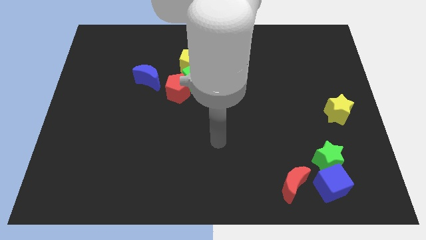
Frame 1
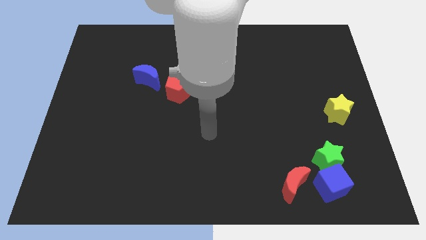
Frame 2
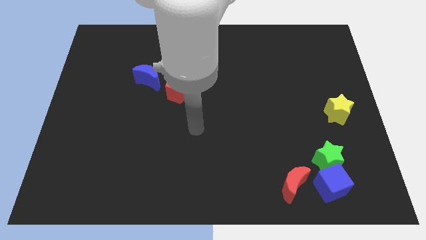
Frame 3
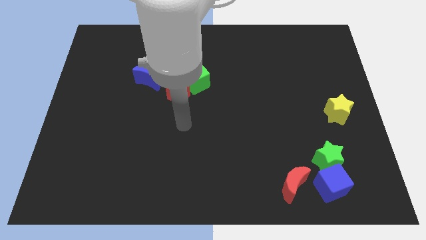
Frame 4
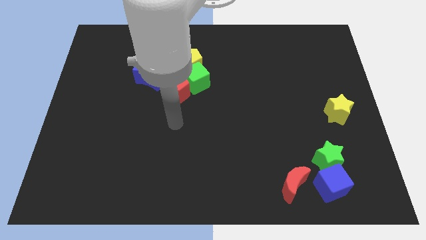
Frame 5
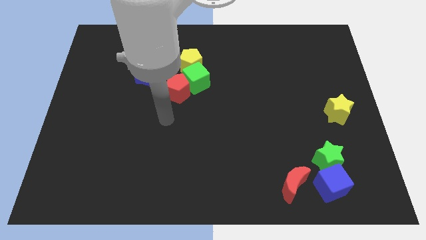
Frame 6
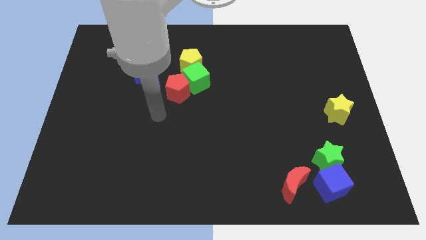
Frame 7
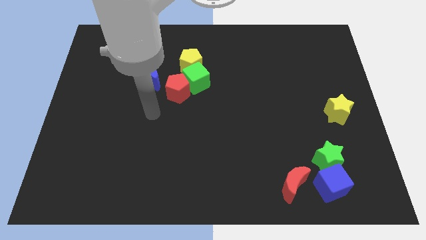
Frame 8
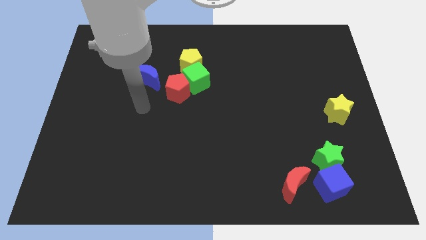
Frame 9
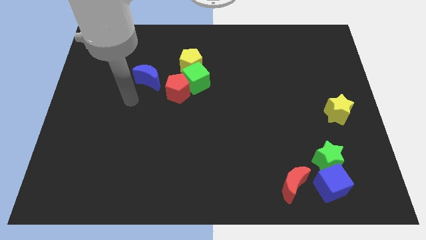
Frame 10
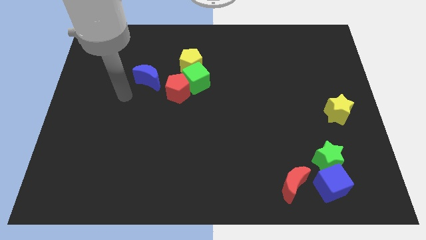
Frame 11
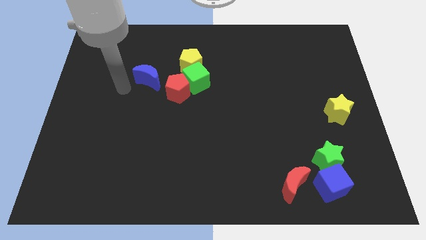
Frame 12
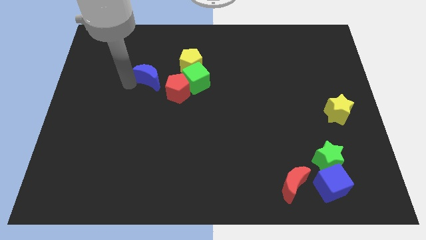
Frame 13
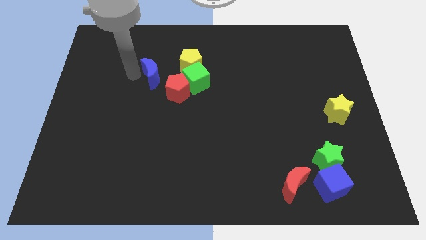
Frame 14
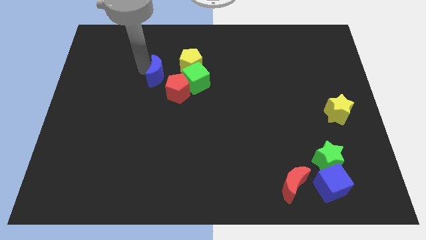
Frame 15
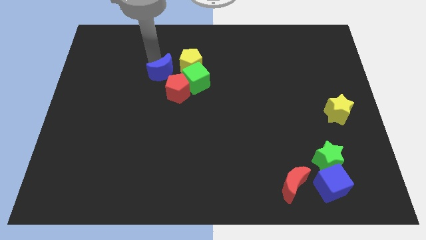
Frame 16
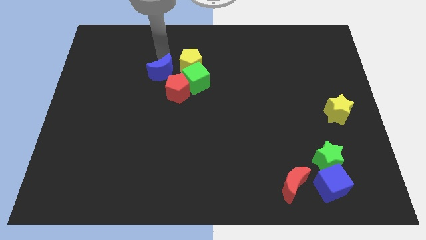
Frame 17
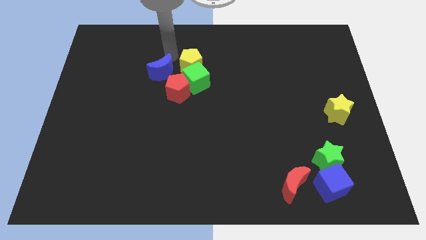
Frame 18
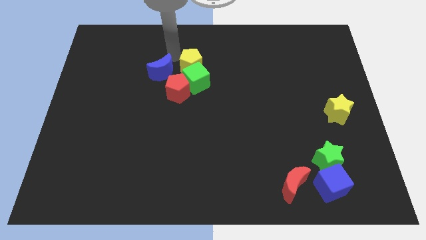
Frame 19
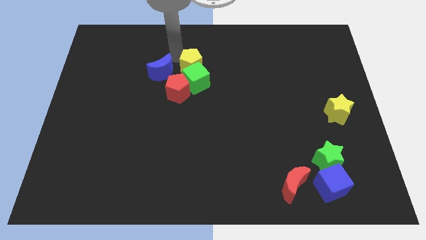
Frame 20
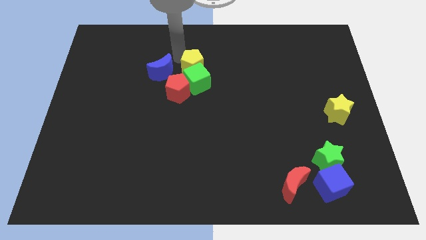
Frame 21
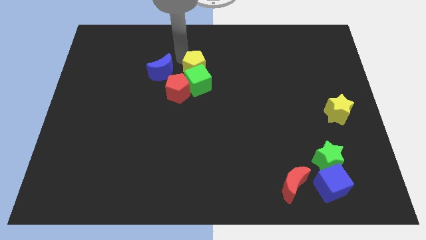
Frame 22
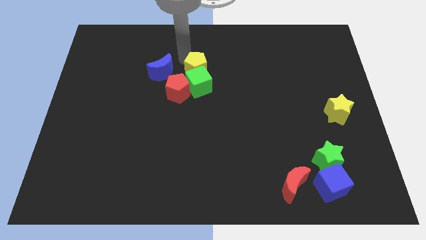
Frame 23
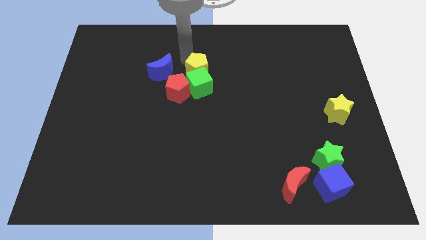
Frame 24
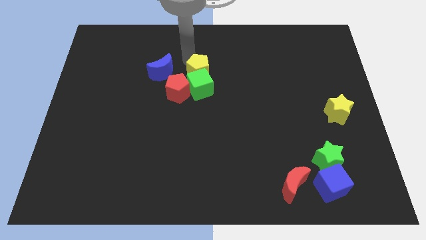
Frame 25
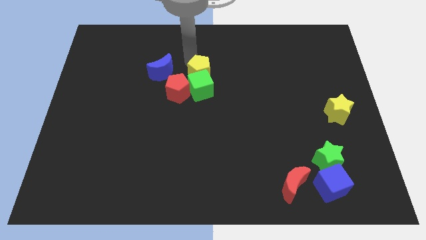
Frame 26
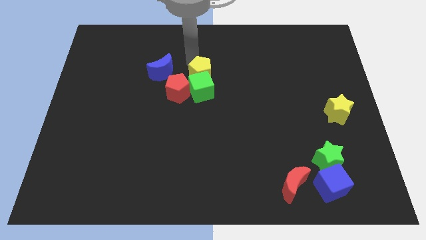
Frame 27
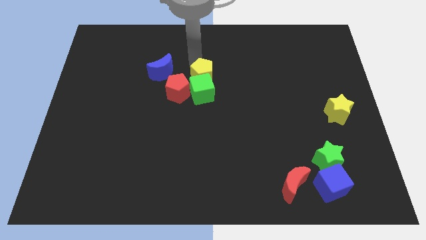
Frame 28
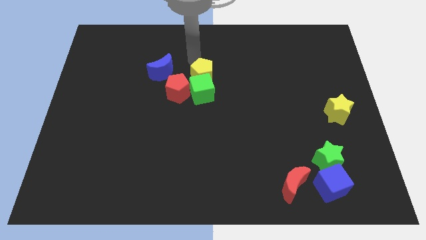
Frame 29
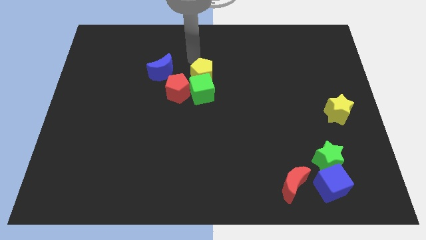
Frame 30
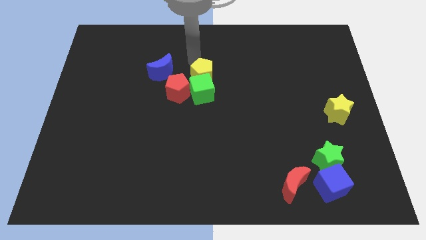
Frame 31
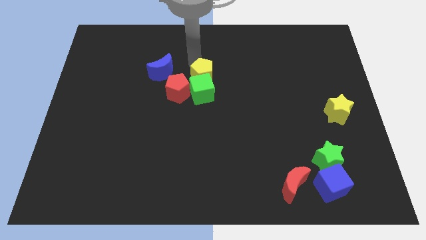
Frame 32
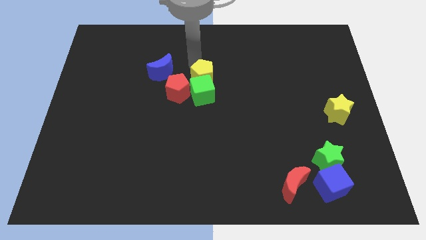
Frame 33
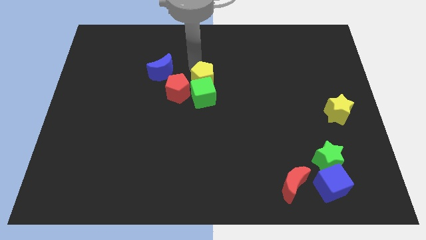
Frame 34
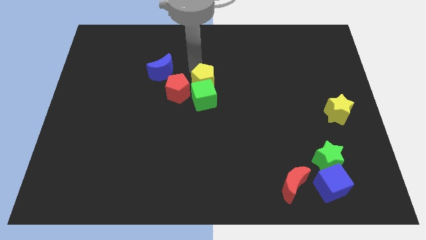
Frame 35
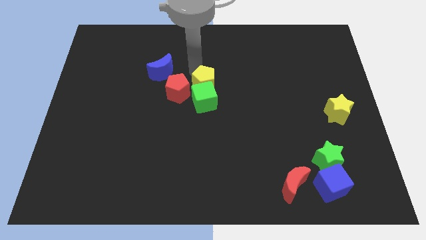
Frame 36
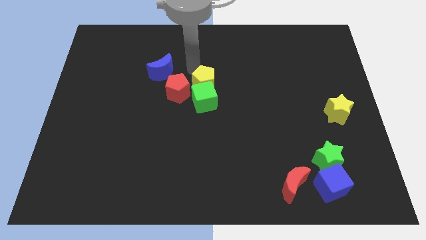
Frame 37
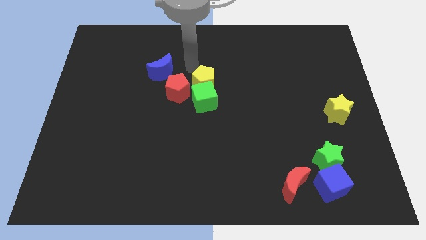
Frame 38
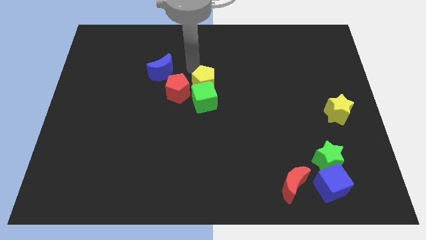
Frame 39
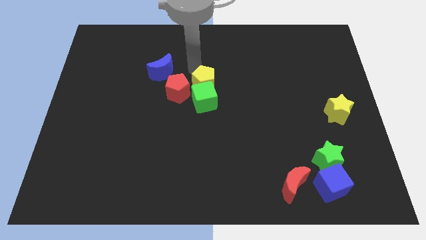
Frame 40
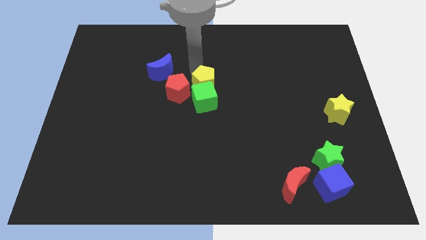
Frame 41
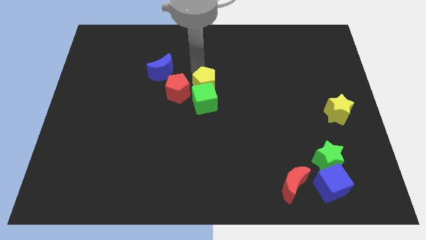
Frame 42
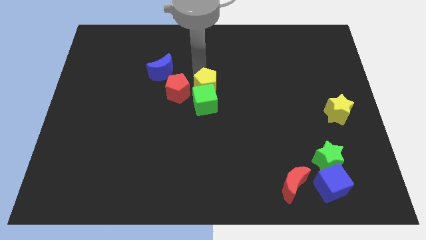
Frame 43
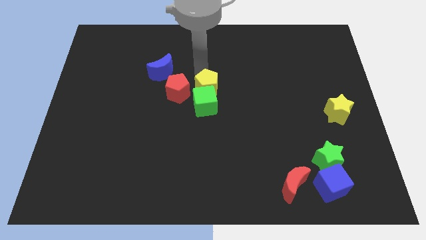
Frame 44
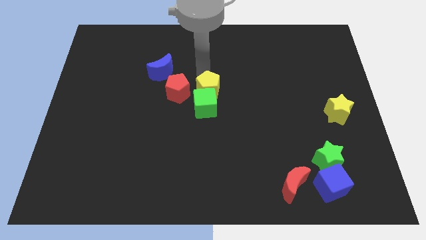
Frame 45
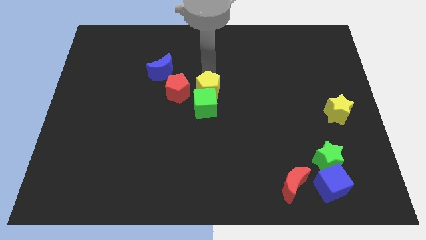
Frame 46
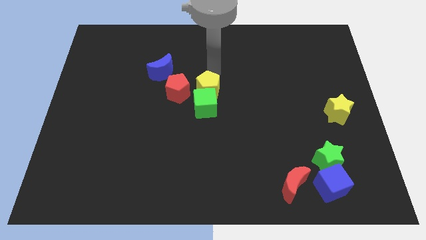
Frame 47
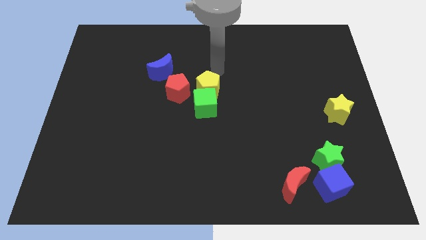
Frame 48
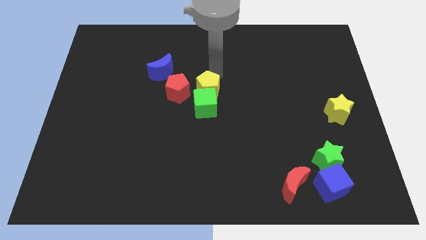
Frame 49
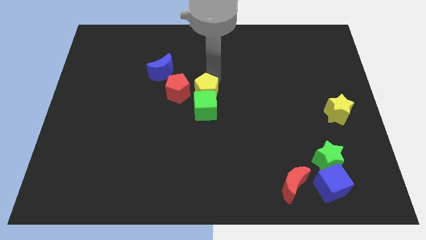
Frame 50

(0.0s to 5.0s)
slide the yellow pentagon to the bottom right of the red pentagon

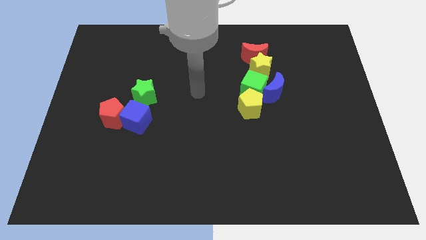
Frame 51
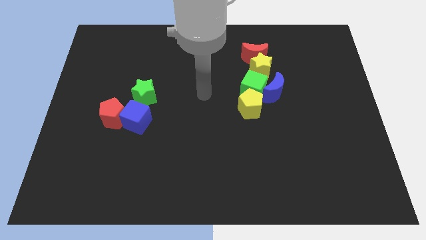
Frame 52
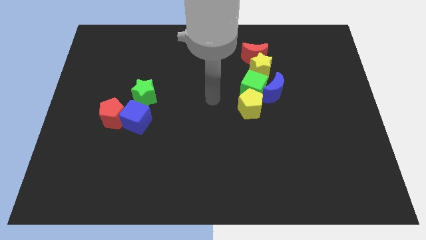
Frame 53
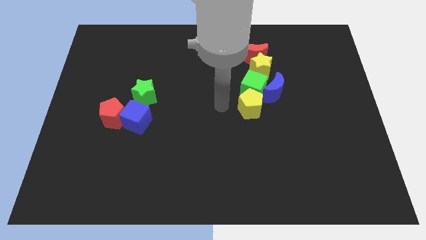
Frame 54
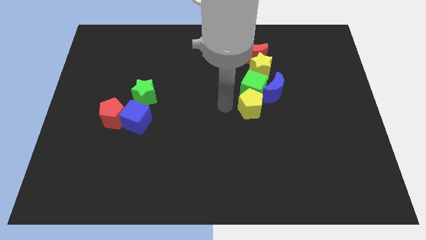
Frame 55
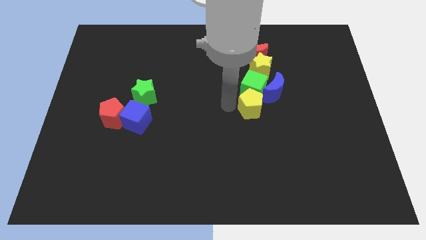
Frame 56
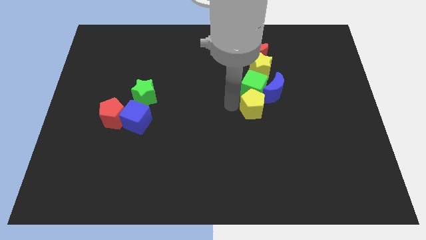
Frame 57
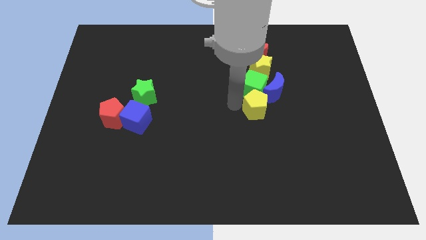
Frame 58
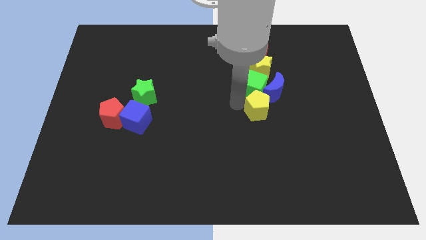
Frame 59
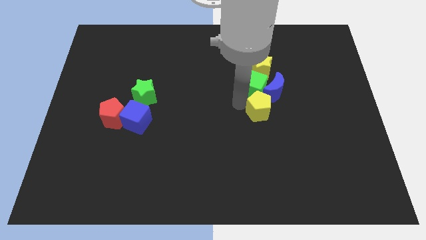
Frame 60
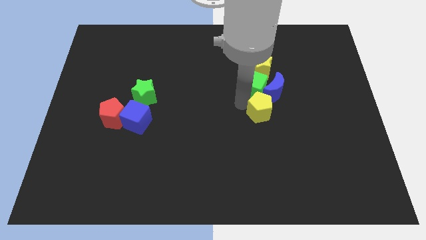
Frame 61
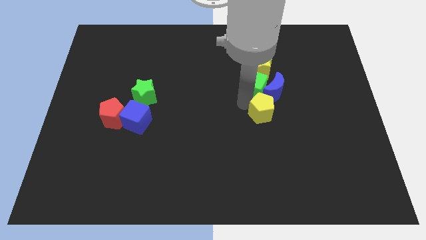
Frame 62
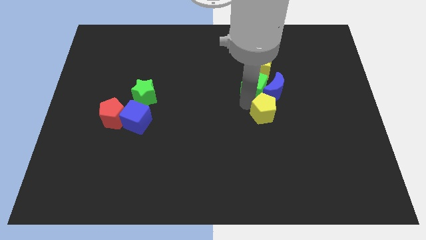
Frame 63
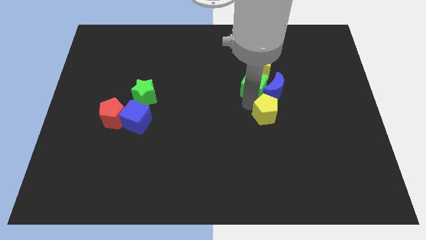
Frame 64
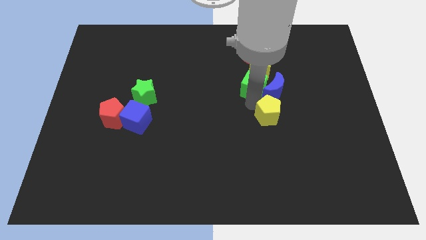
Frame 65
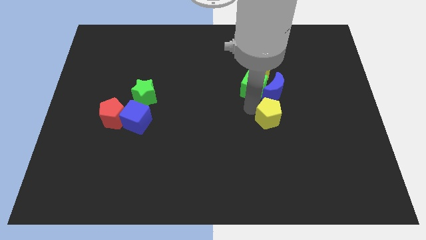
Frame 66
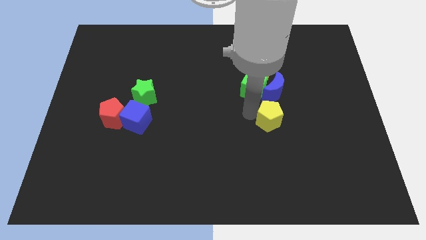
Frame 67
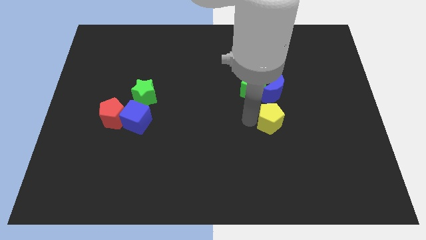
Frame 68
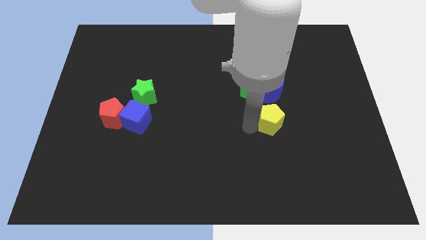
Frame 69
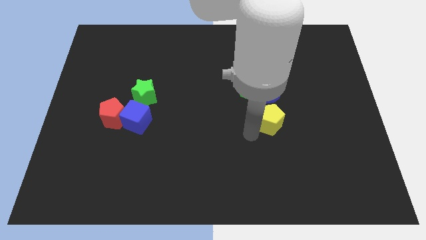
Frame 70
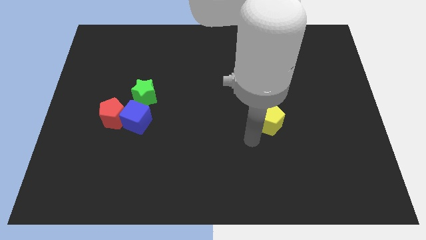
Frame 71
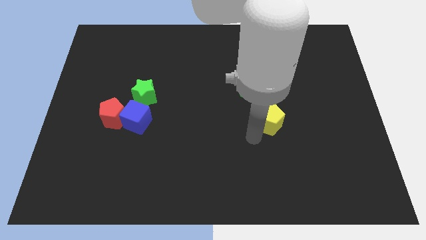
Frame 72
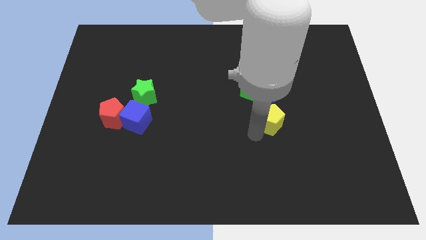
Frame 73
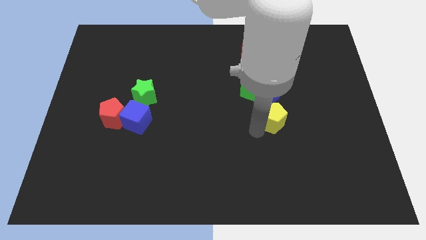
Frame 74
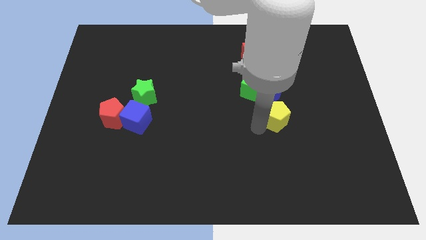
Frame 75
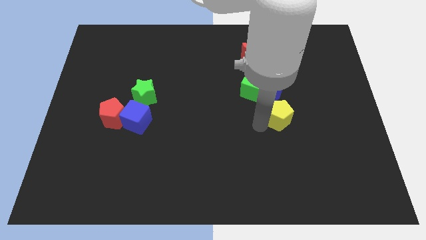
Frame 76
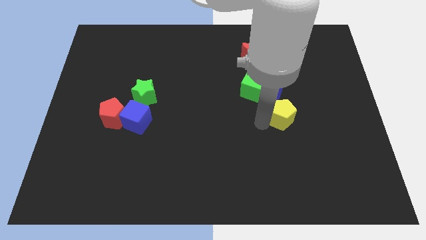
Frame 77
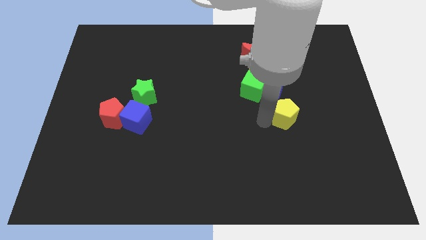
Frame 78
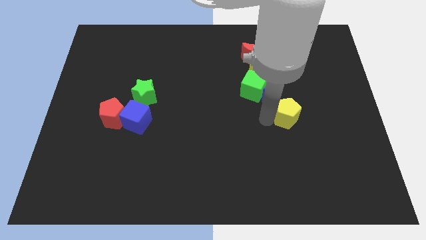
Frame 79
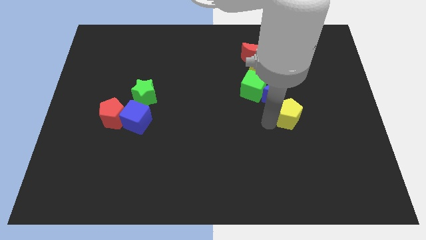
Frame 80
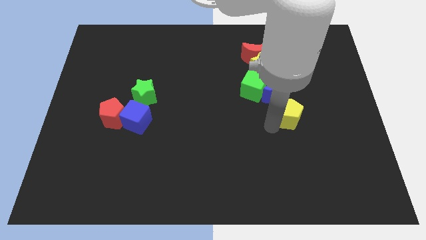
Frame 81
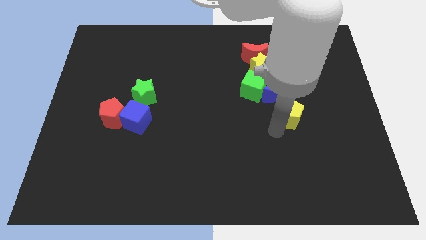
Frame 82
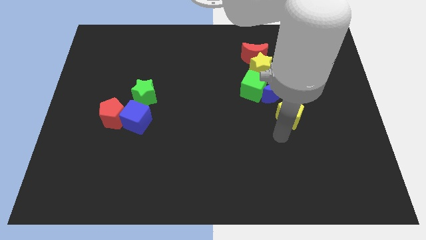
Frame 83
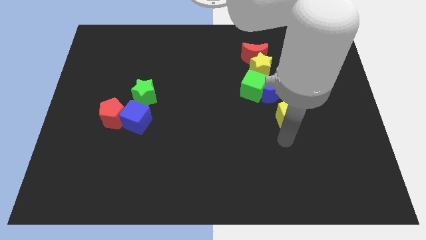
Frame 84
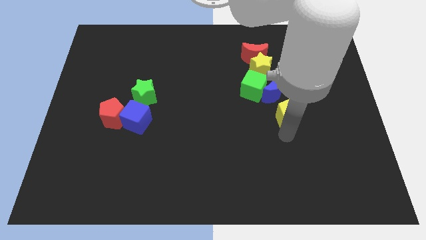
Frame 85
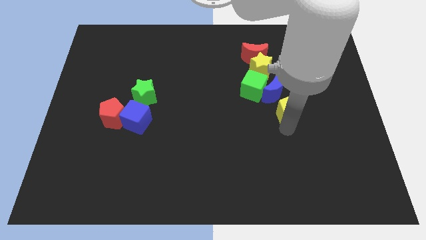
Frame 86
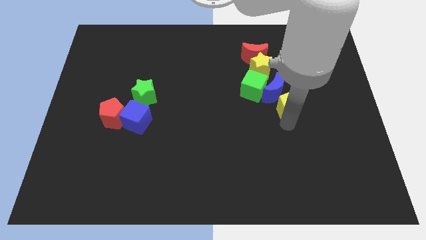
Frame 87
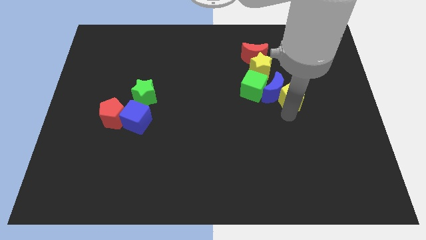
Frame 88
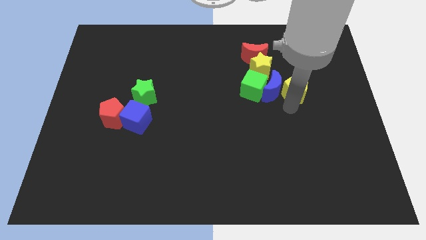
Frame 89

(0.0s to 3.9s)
slide the yellow pentagon diagonally up and to the right of the blue moon
